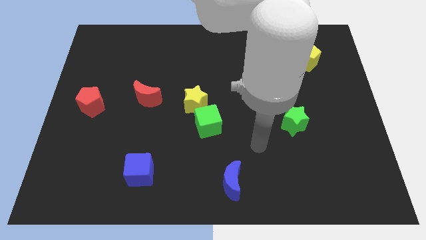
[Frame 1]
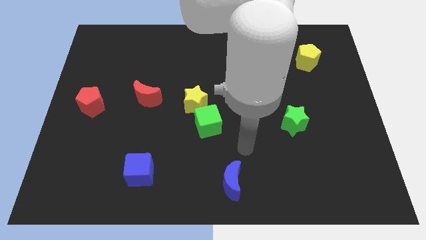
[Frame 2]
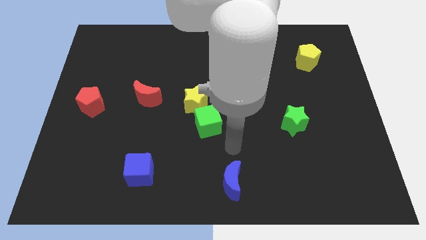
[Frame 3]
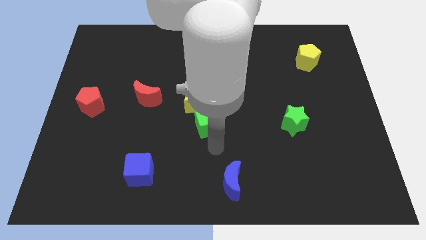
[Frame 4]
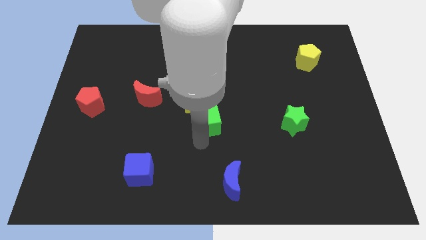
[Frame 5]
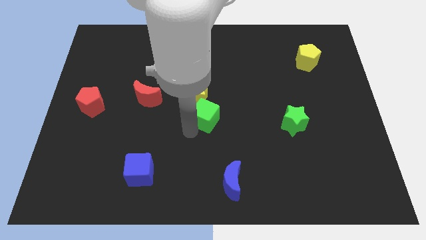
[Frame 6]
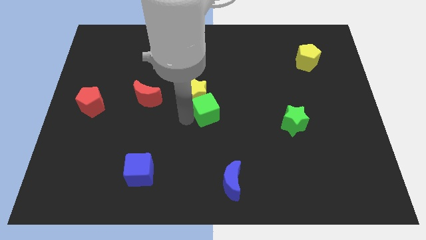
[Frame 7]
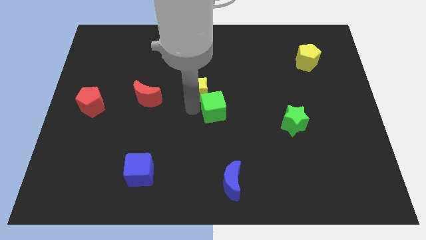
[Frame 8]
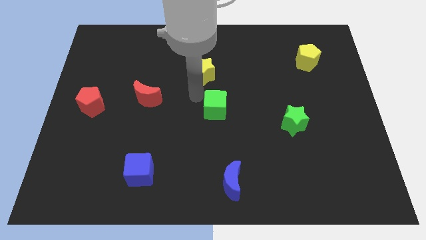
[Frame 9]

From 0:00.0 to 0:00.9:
separate the green cube from the yellow star

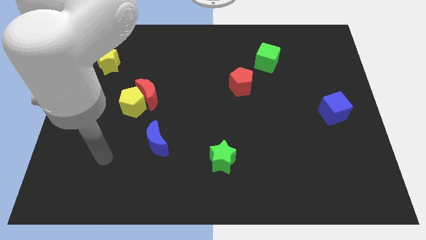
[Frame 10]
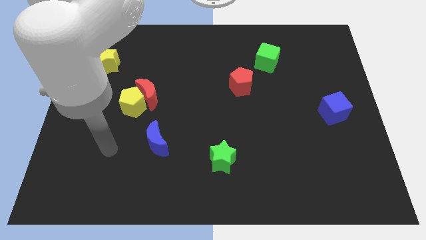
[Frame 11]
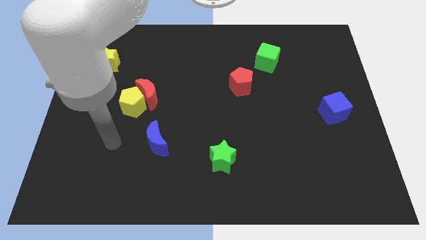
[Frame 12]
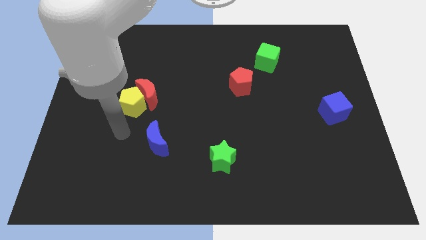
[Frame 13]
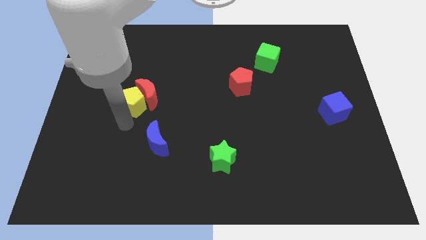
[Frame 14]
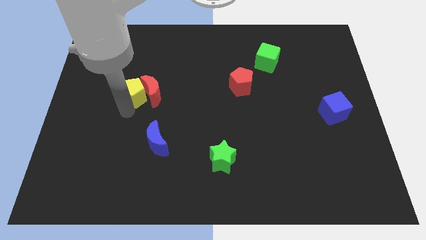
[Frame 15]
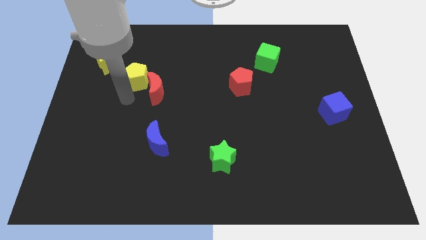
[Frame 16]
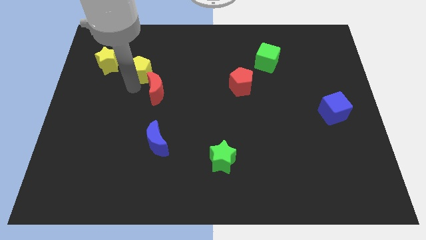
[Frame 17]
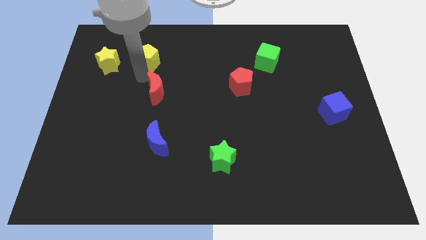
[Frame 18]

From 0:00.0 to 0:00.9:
pull the red moon apart from the yellow pentagon

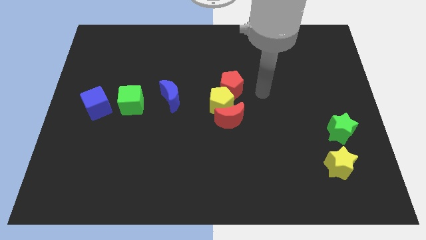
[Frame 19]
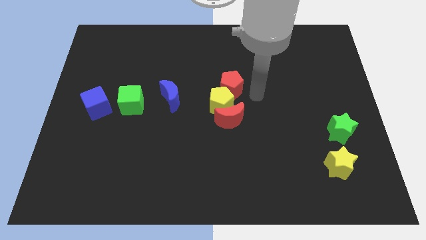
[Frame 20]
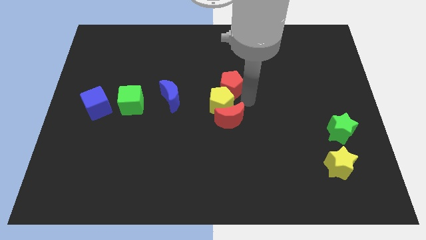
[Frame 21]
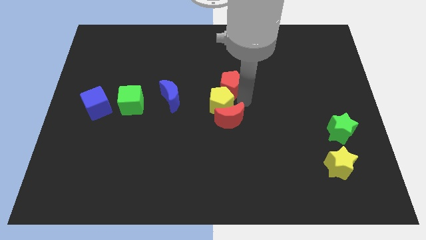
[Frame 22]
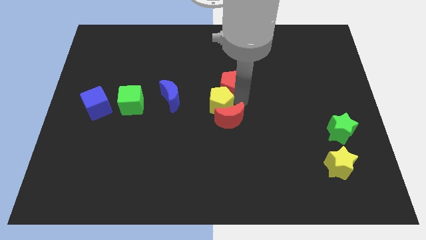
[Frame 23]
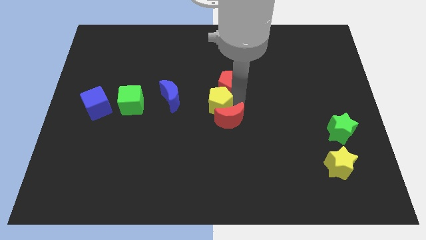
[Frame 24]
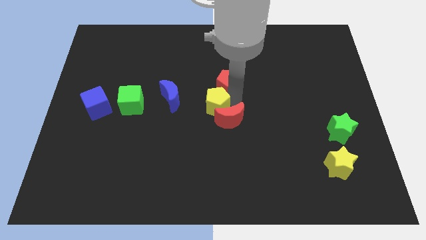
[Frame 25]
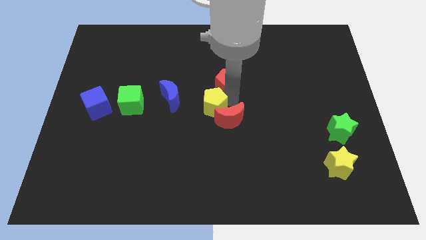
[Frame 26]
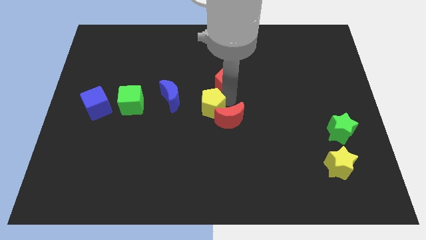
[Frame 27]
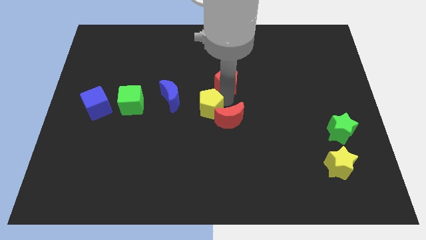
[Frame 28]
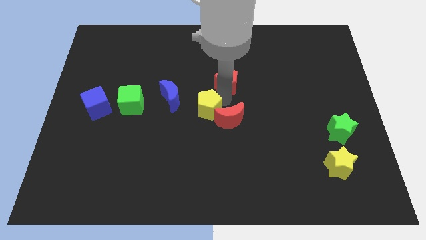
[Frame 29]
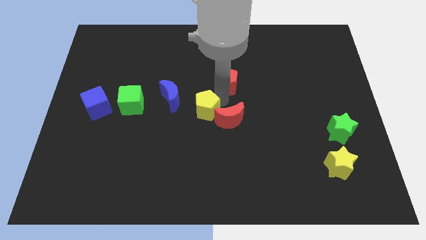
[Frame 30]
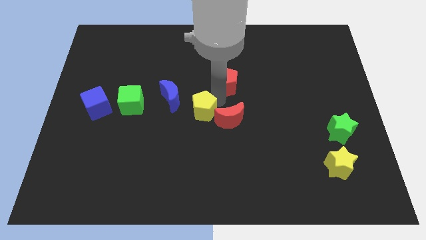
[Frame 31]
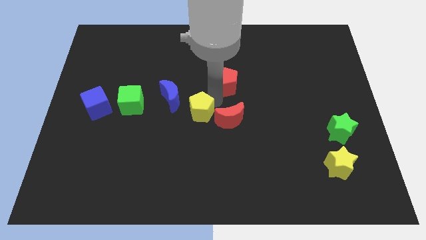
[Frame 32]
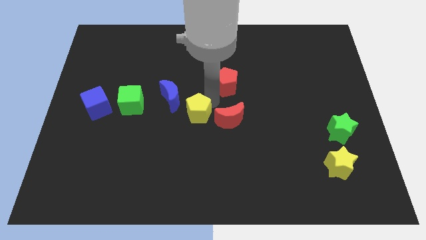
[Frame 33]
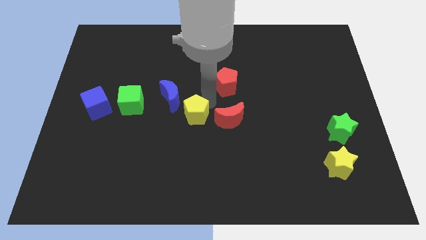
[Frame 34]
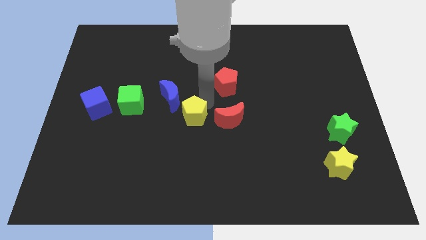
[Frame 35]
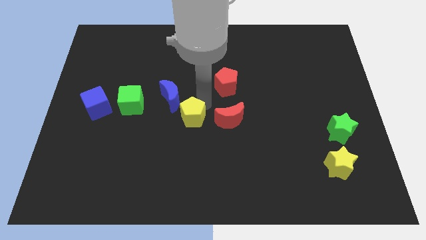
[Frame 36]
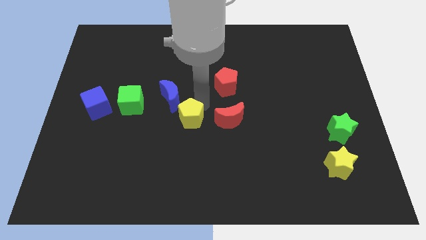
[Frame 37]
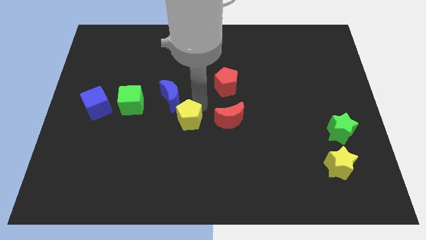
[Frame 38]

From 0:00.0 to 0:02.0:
move the yellow pentagon away from the red moon and red pentagon

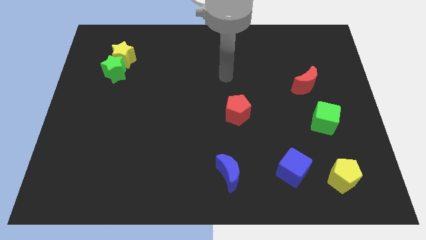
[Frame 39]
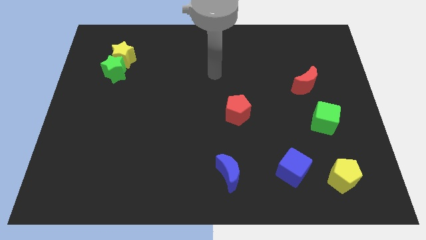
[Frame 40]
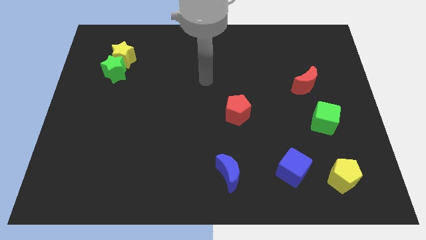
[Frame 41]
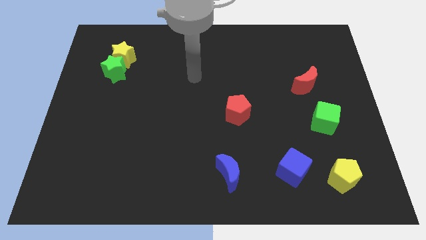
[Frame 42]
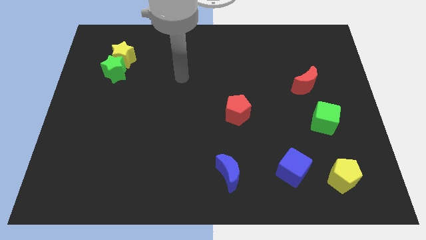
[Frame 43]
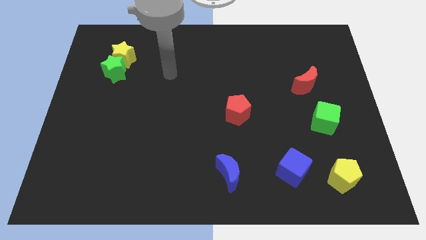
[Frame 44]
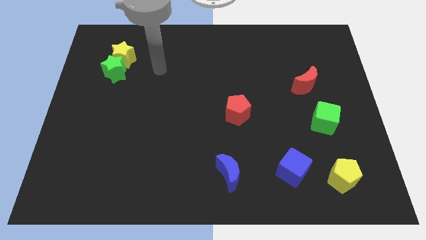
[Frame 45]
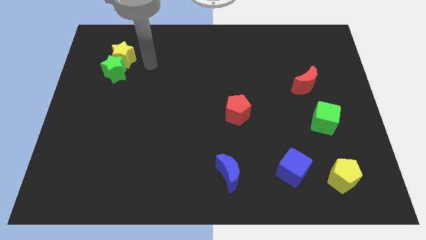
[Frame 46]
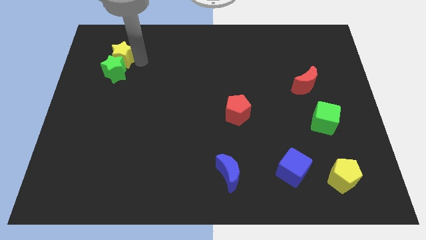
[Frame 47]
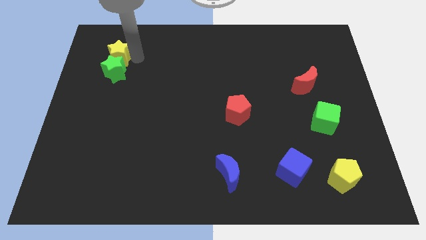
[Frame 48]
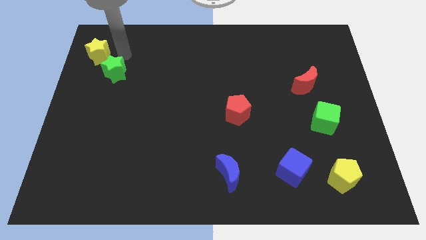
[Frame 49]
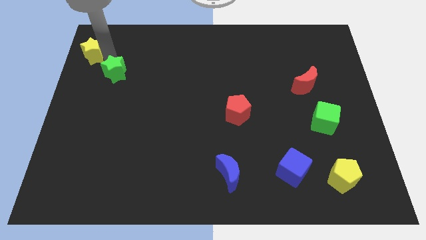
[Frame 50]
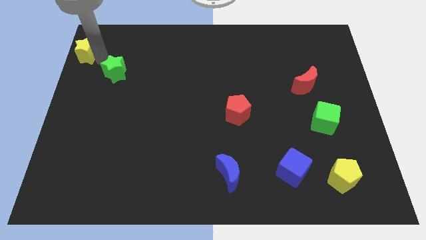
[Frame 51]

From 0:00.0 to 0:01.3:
move the green star away from the yellow star

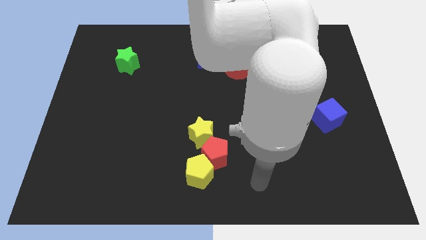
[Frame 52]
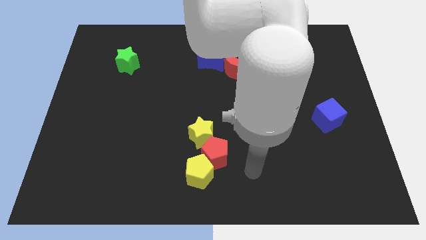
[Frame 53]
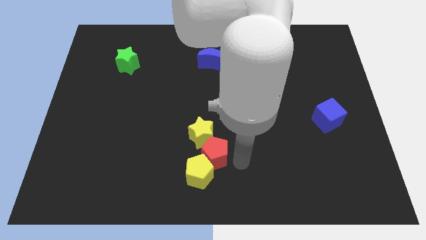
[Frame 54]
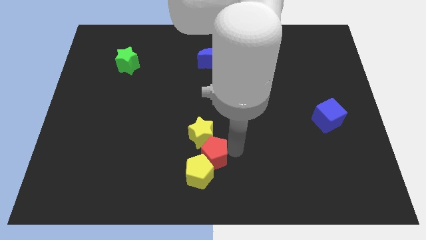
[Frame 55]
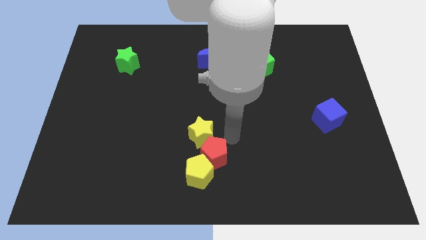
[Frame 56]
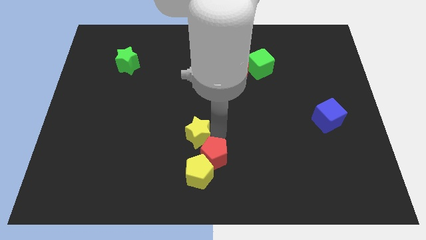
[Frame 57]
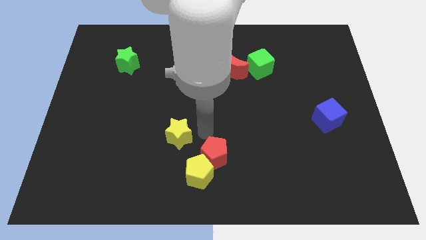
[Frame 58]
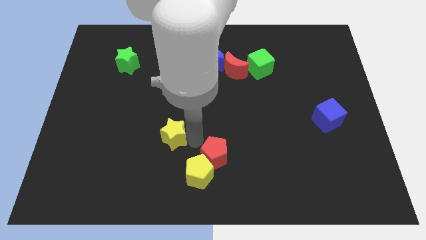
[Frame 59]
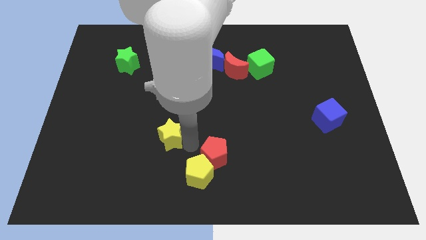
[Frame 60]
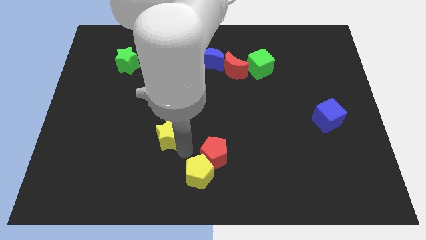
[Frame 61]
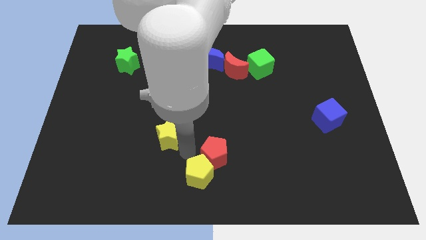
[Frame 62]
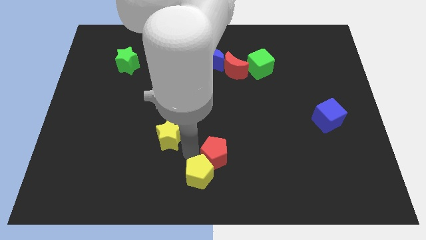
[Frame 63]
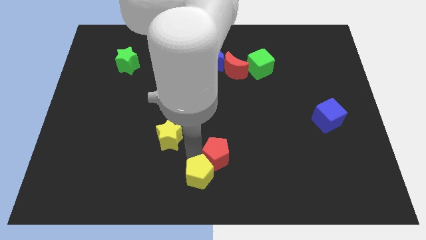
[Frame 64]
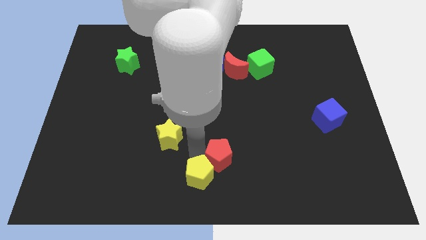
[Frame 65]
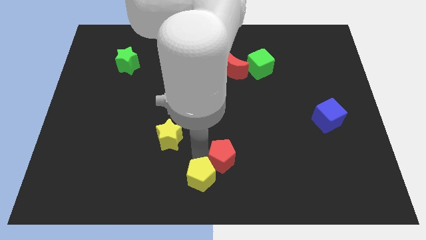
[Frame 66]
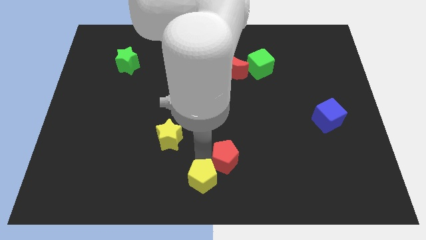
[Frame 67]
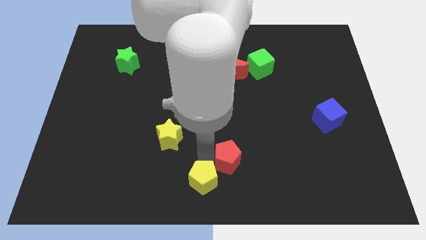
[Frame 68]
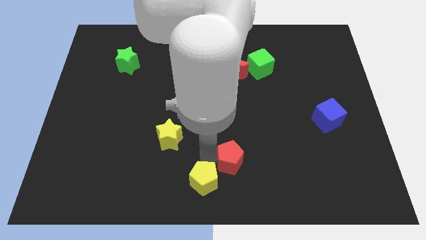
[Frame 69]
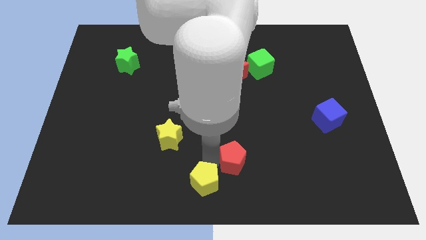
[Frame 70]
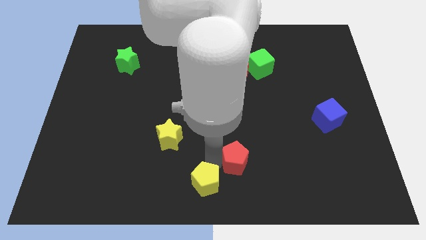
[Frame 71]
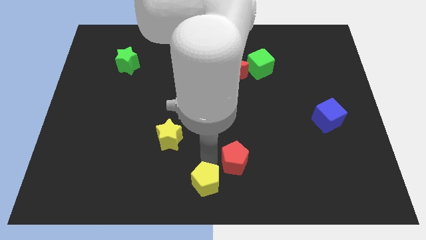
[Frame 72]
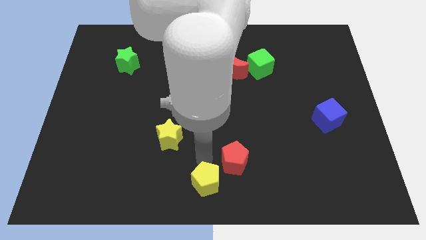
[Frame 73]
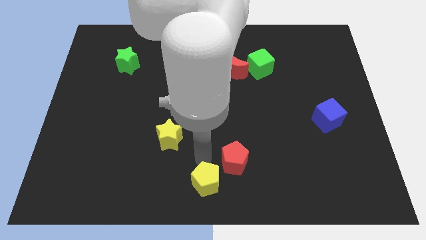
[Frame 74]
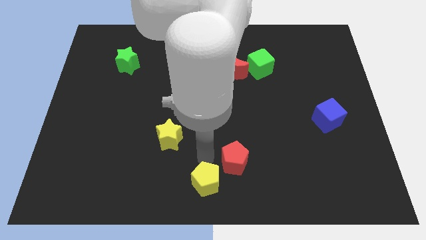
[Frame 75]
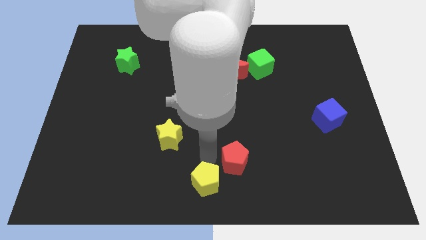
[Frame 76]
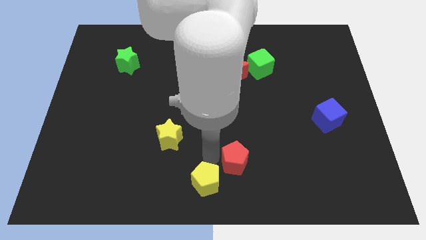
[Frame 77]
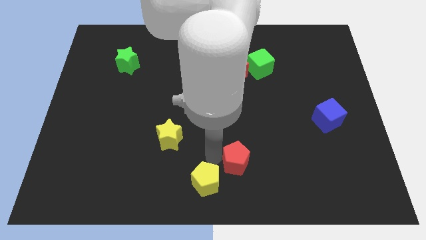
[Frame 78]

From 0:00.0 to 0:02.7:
pull the red pentagon apart from the yellow pentagon and yellow star

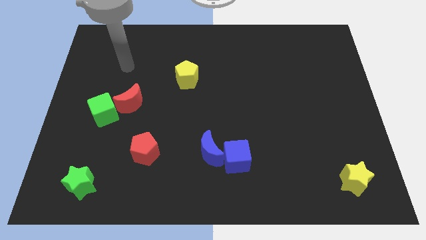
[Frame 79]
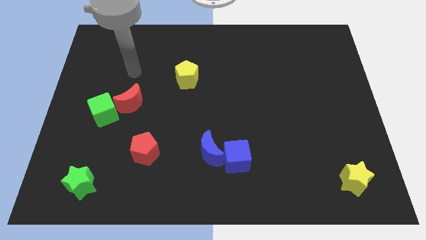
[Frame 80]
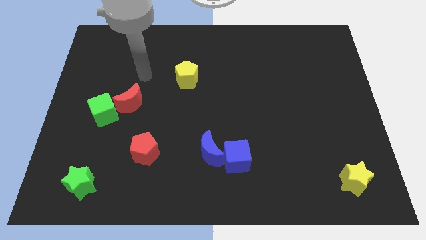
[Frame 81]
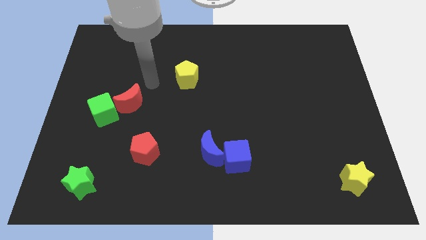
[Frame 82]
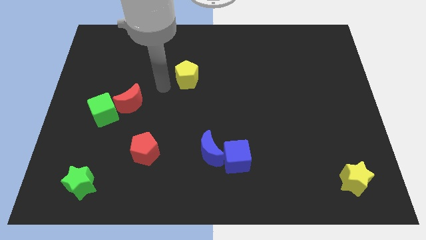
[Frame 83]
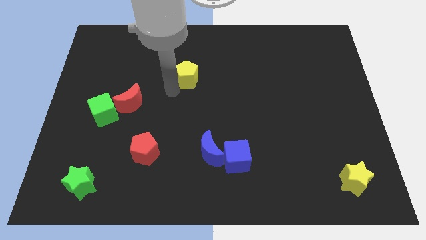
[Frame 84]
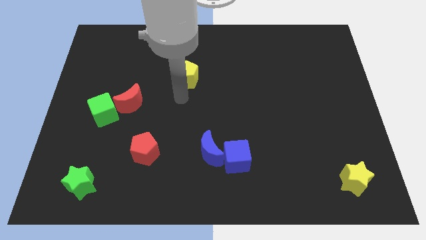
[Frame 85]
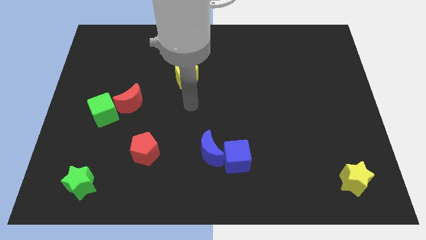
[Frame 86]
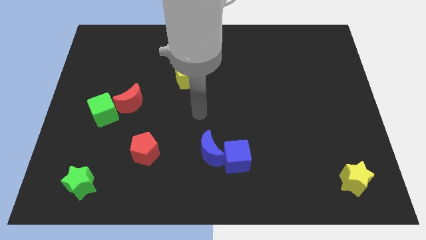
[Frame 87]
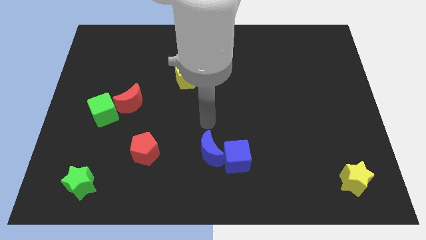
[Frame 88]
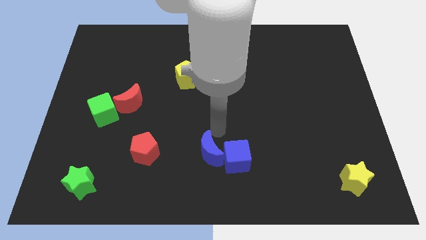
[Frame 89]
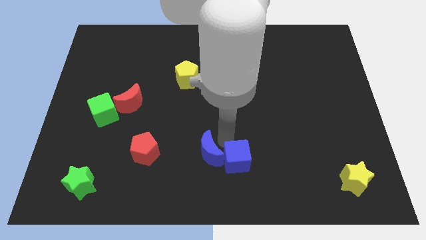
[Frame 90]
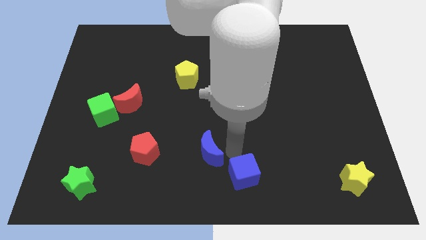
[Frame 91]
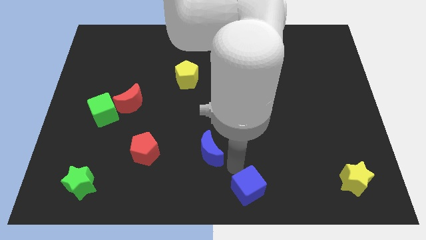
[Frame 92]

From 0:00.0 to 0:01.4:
pull the blue moon apart from the blue cube
